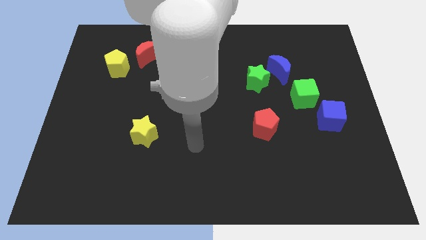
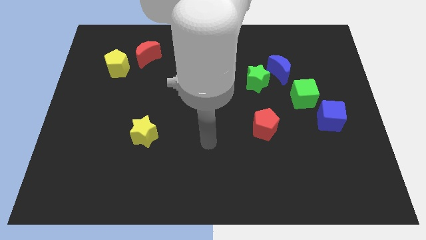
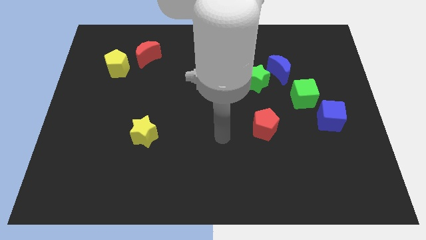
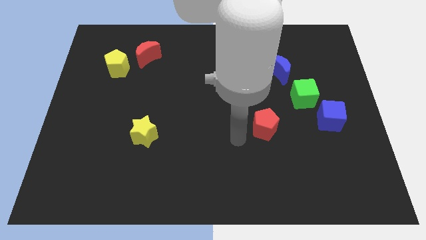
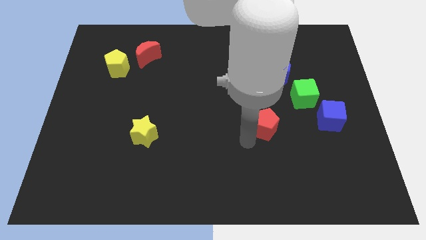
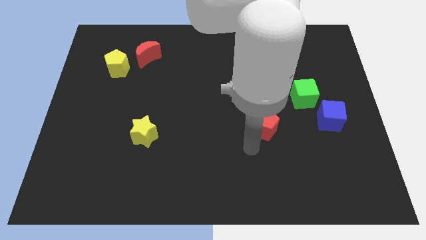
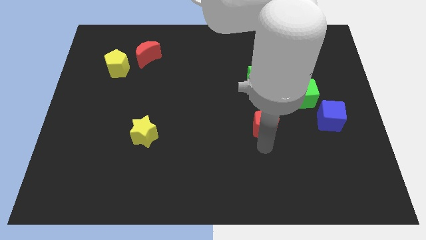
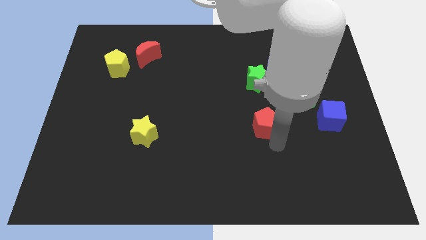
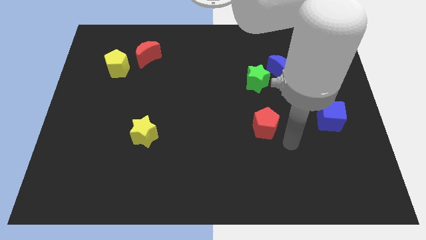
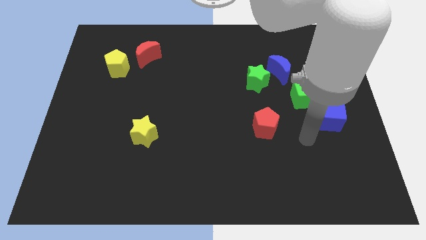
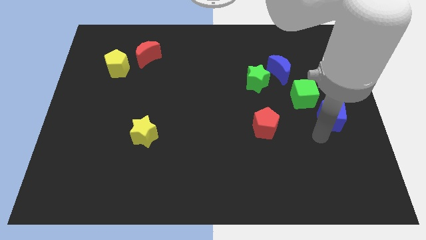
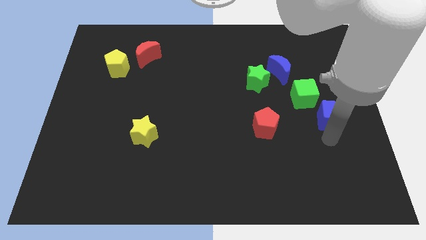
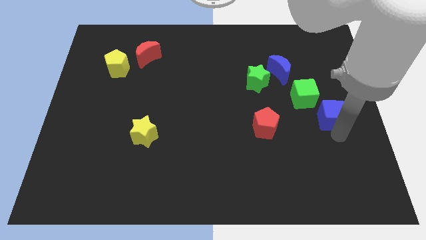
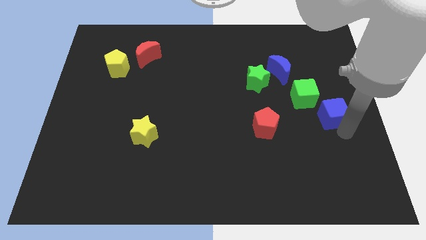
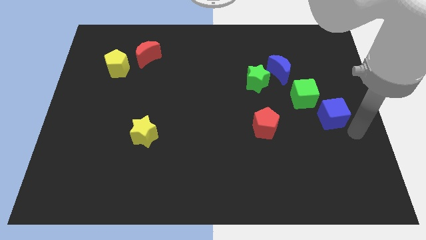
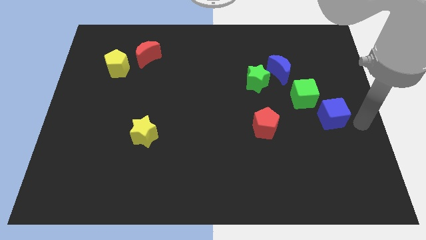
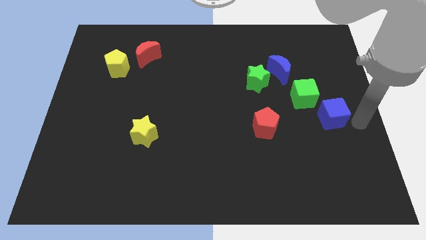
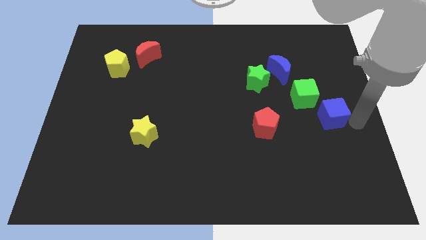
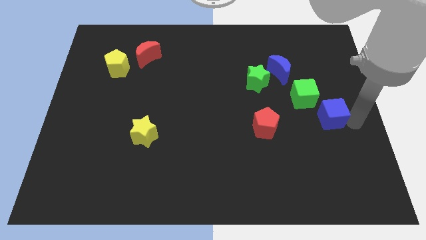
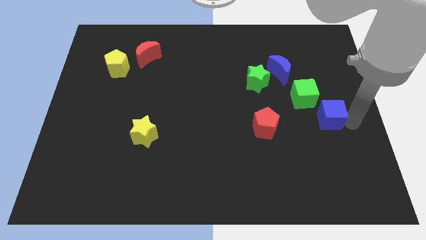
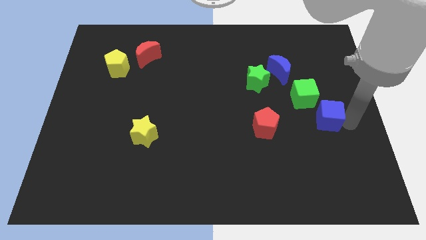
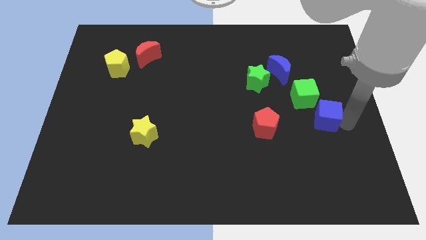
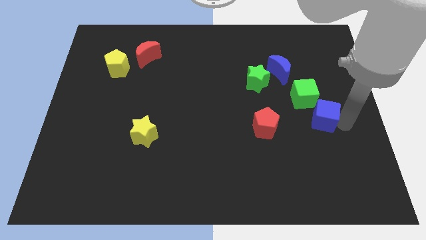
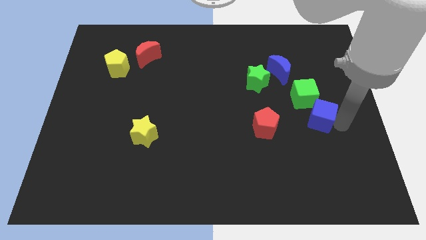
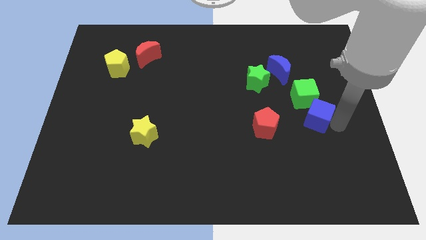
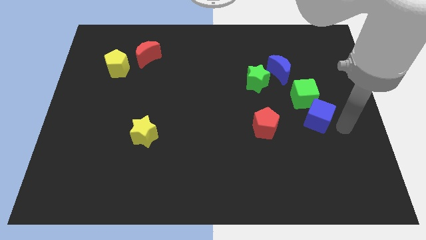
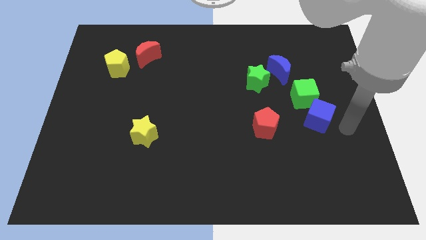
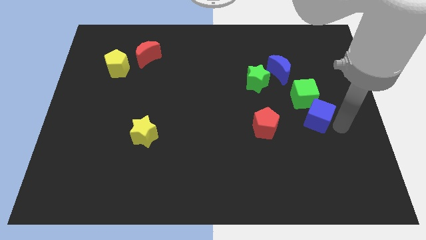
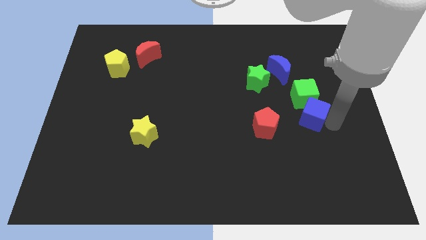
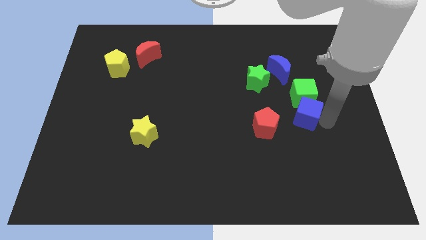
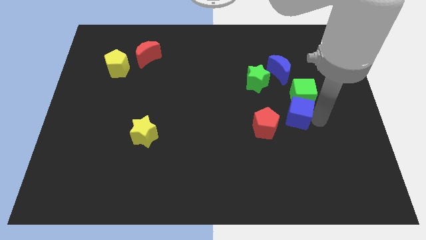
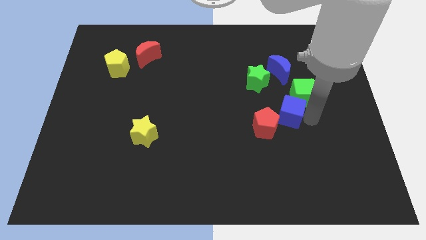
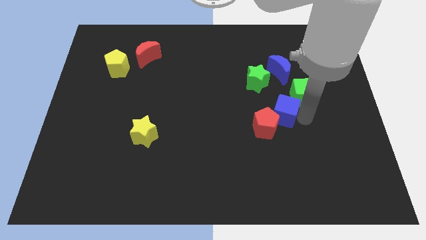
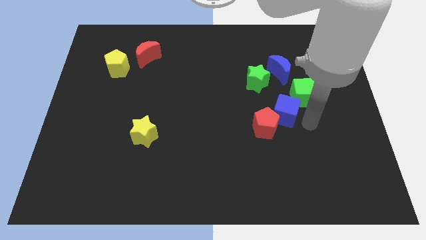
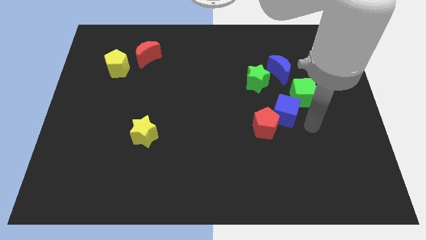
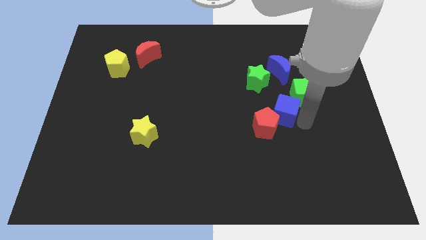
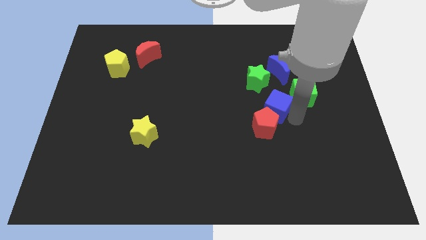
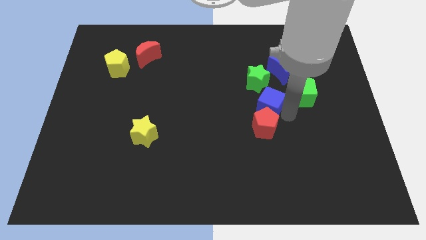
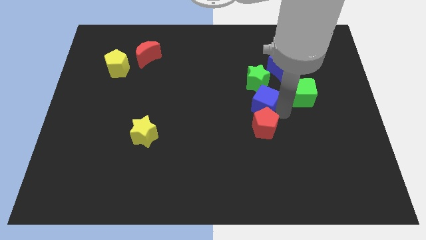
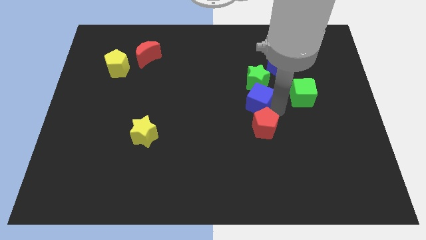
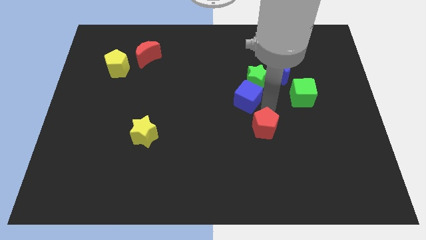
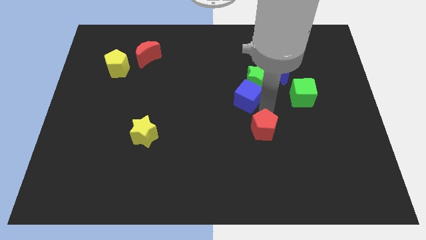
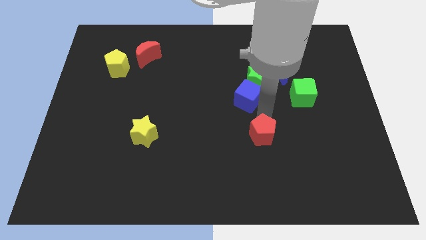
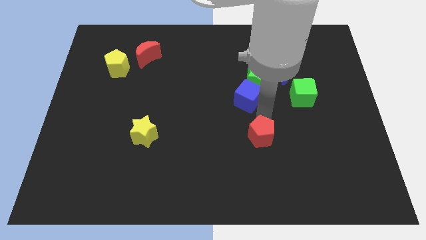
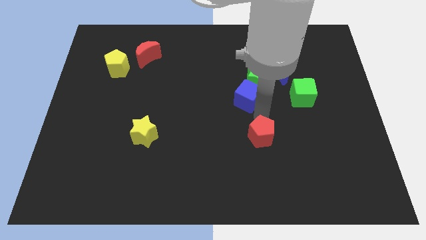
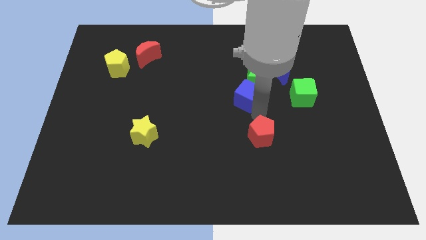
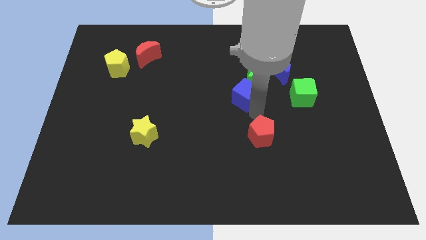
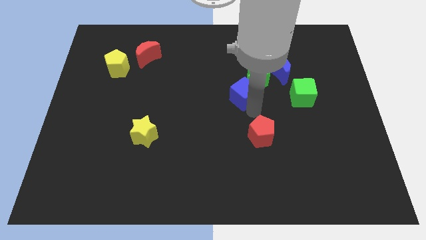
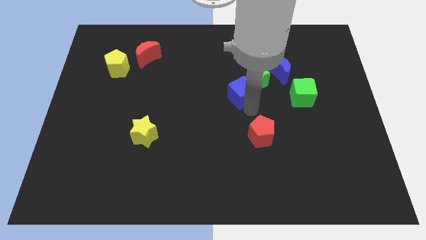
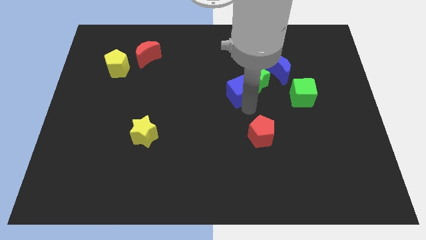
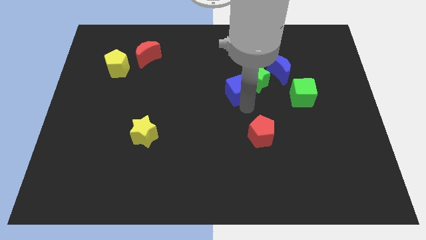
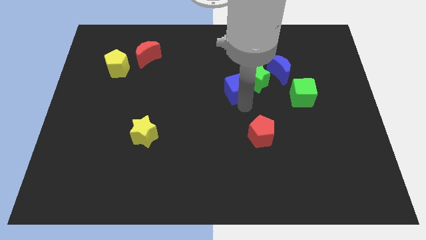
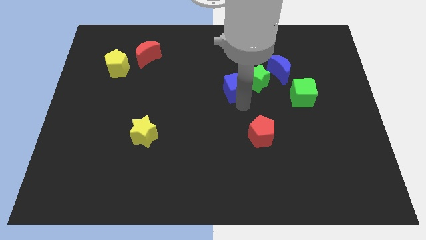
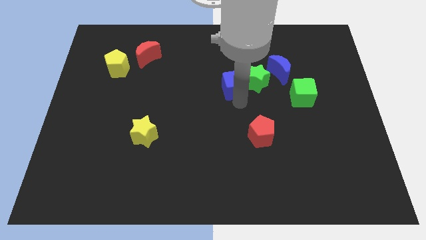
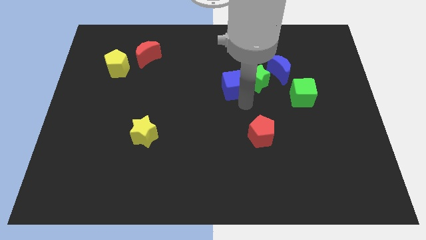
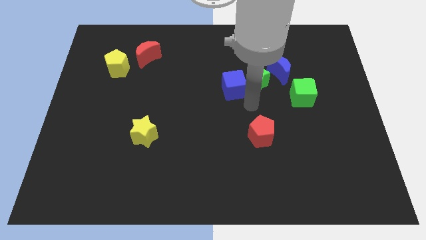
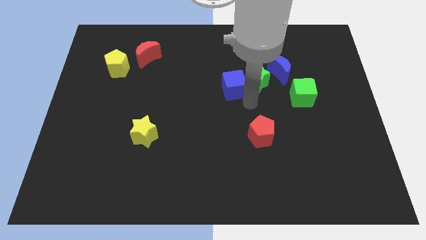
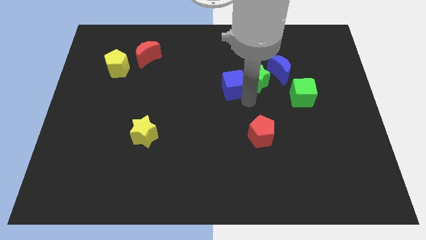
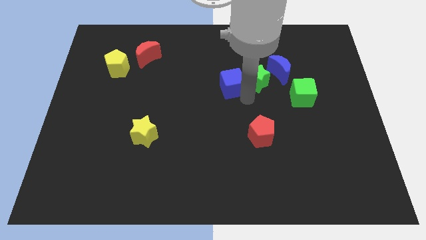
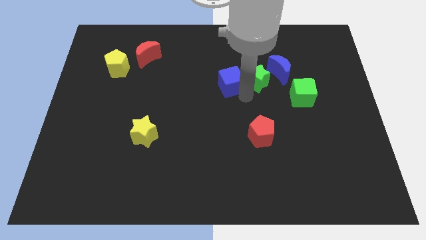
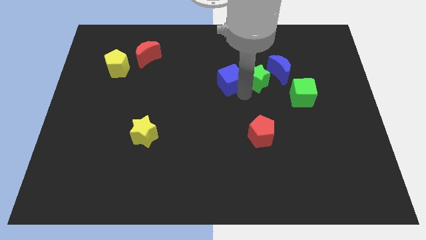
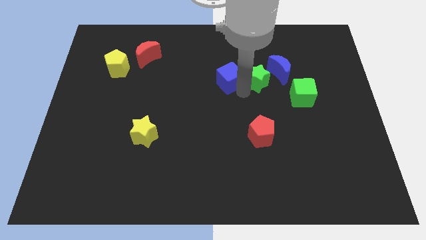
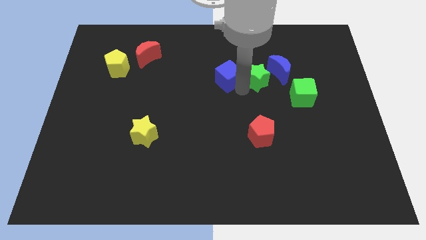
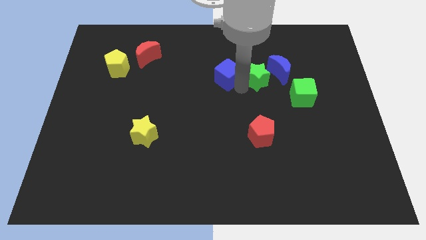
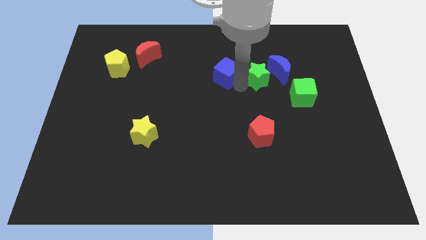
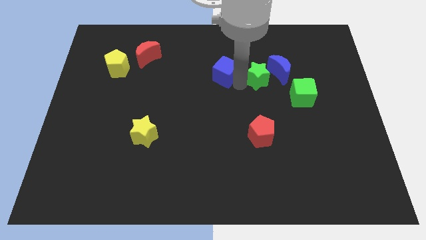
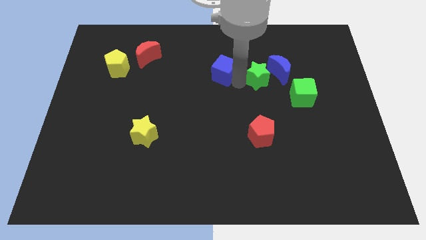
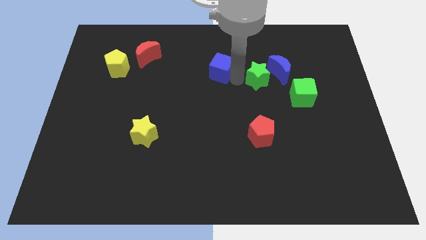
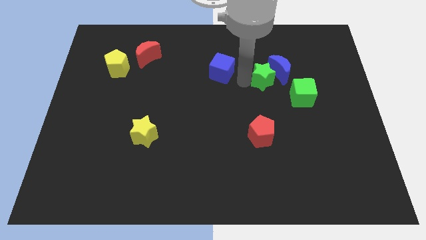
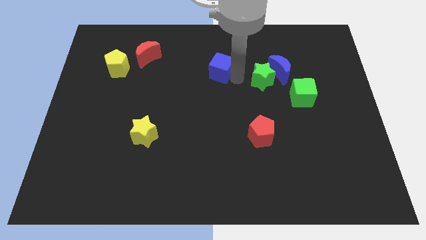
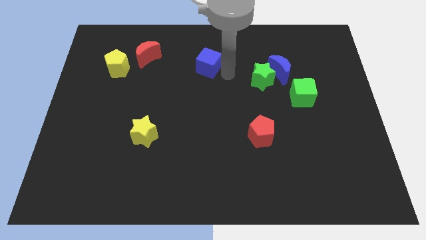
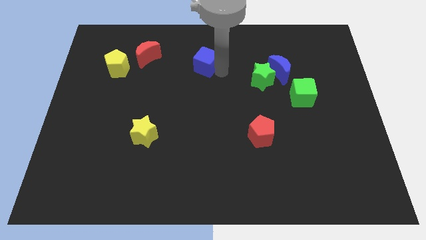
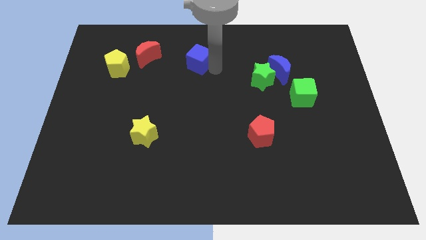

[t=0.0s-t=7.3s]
put the blue cube right of the red moon
